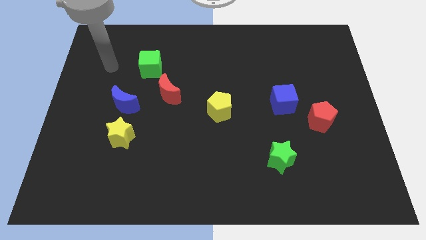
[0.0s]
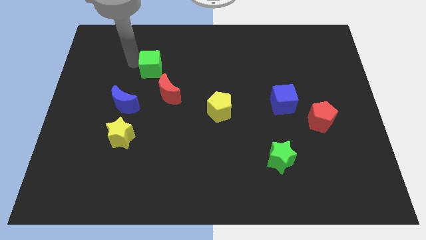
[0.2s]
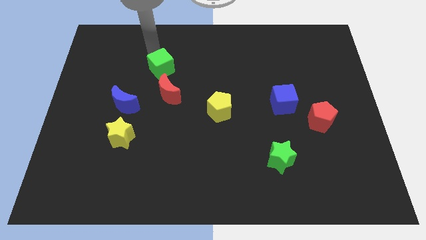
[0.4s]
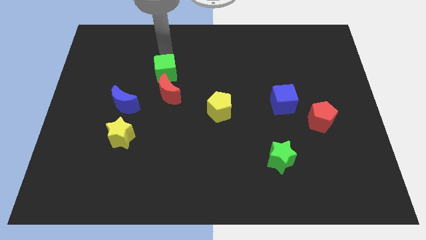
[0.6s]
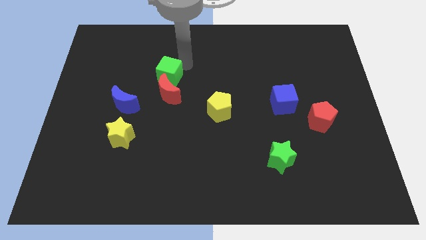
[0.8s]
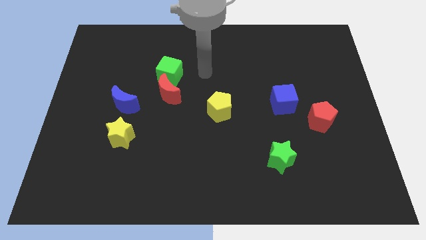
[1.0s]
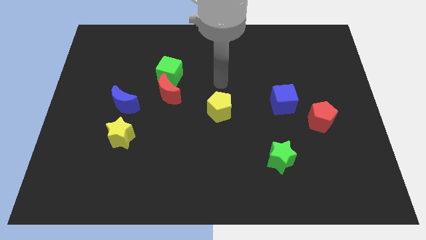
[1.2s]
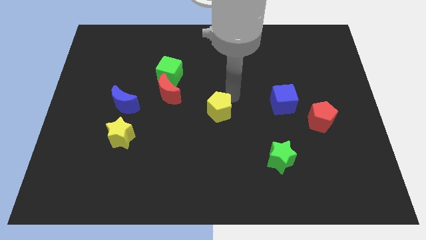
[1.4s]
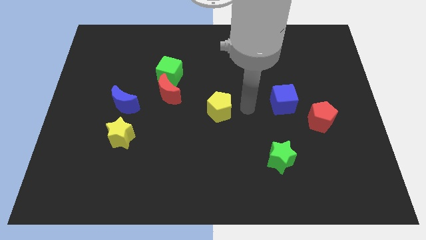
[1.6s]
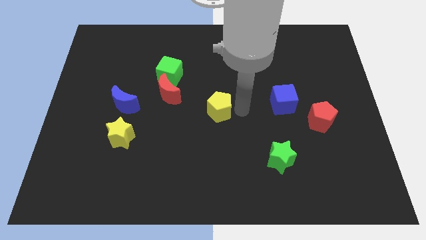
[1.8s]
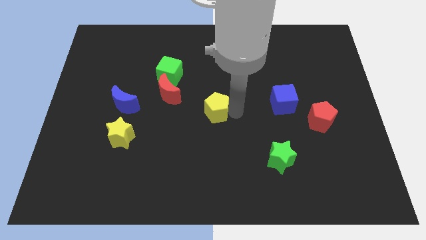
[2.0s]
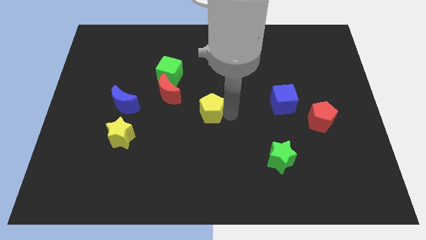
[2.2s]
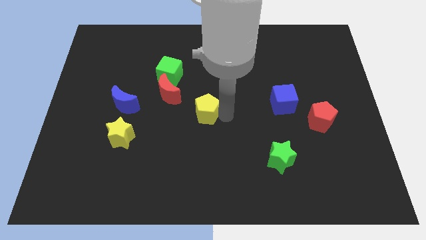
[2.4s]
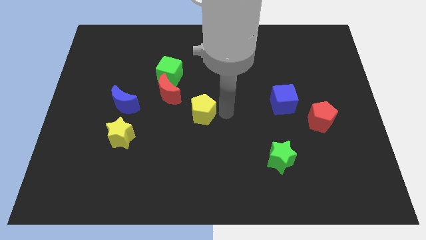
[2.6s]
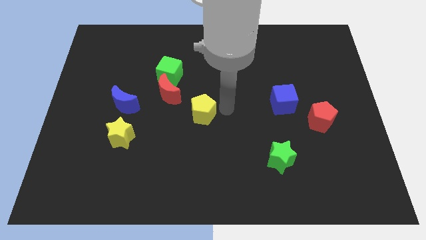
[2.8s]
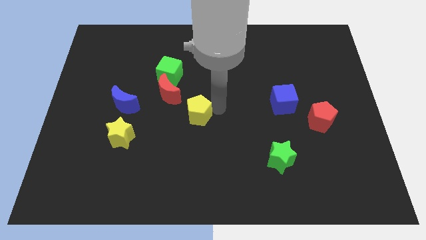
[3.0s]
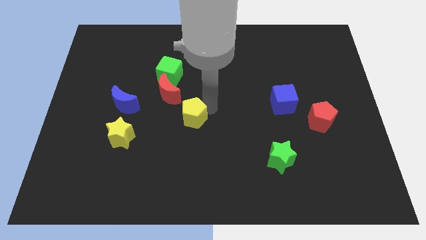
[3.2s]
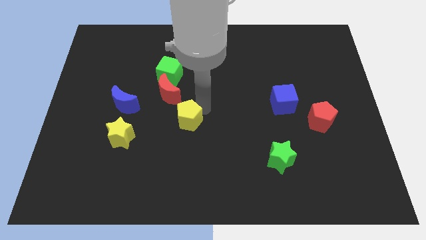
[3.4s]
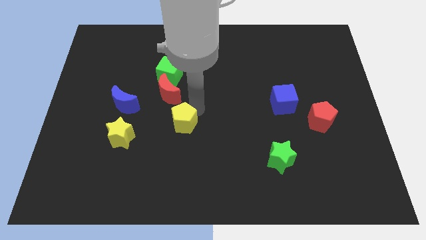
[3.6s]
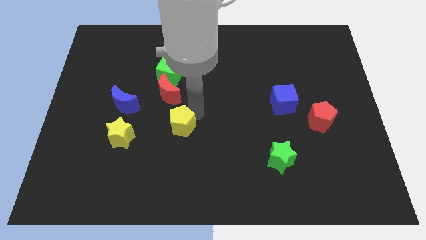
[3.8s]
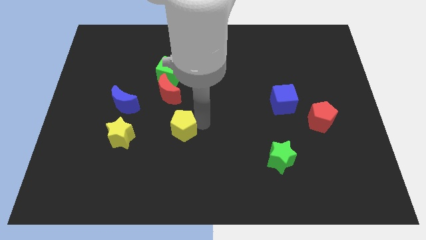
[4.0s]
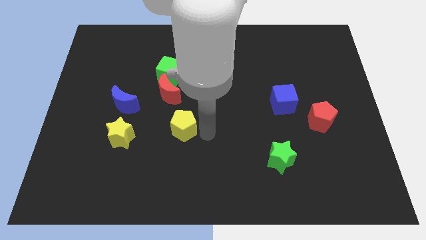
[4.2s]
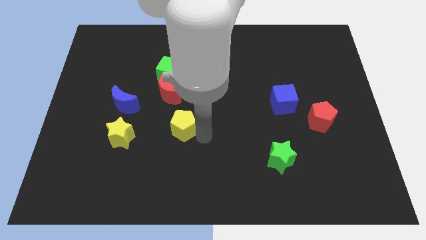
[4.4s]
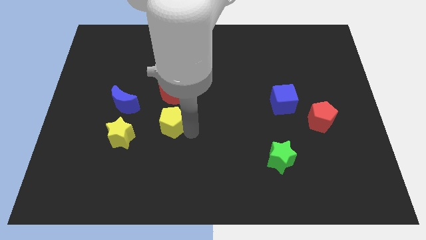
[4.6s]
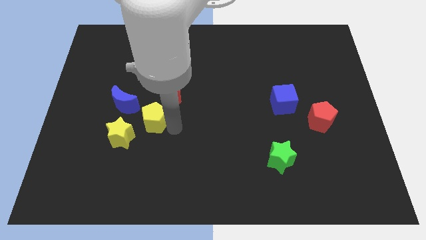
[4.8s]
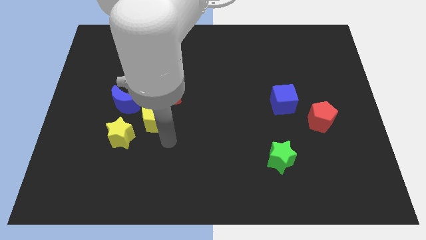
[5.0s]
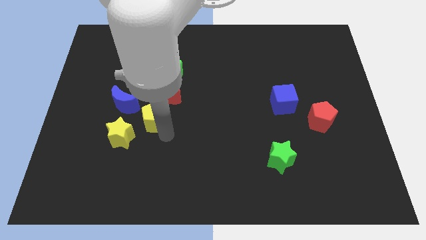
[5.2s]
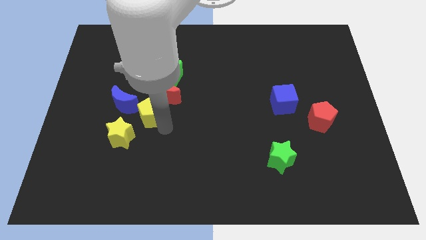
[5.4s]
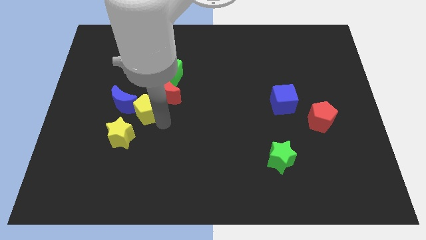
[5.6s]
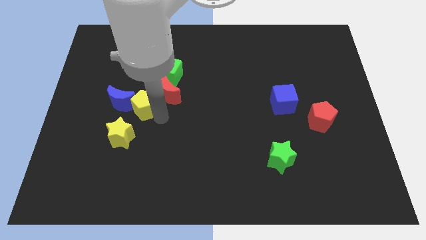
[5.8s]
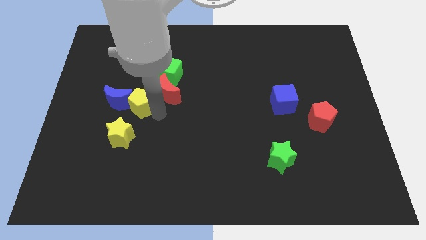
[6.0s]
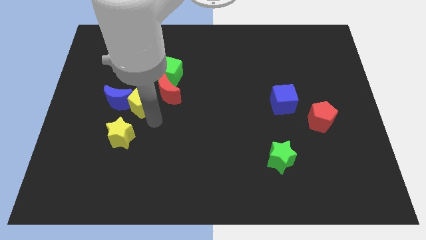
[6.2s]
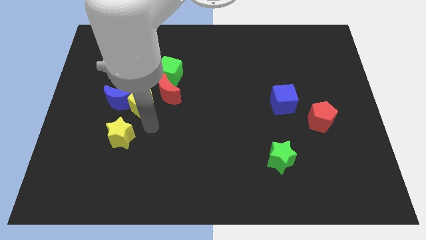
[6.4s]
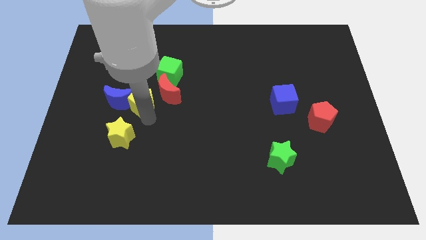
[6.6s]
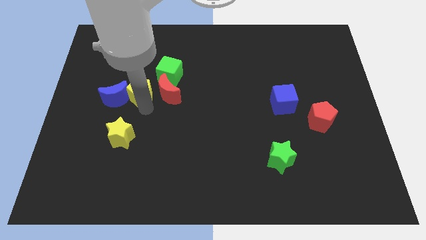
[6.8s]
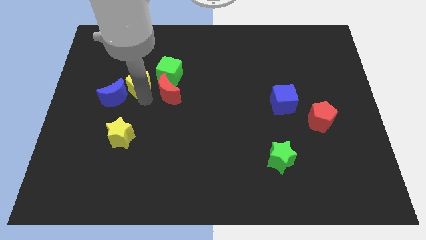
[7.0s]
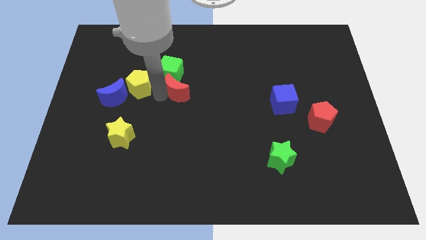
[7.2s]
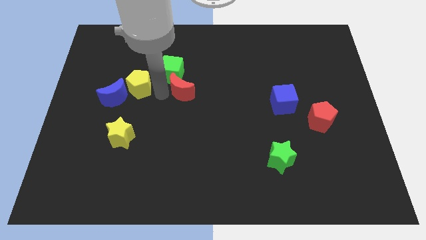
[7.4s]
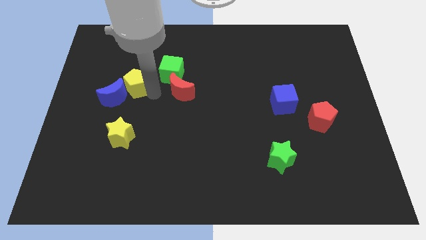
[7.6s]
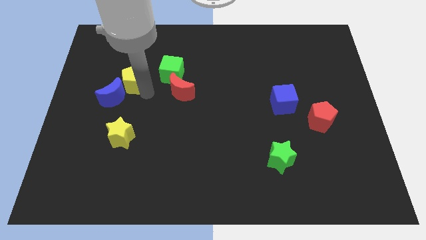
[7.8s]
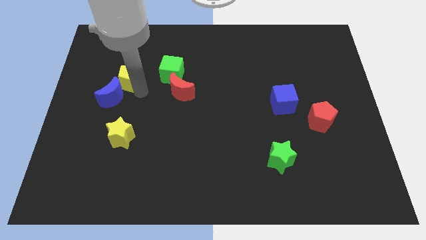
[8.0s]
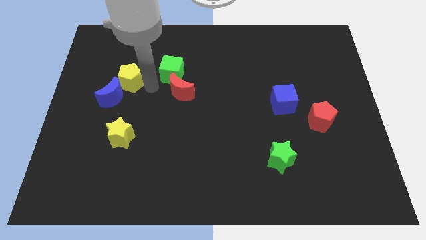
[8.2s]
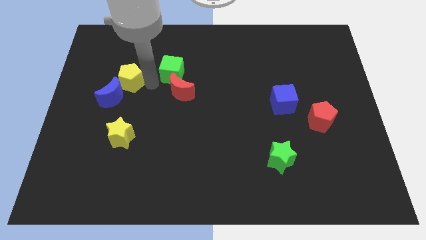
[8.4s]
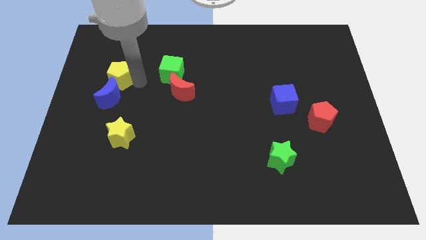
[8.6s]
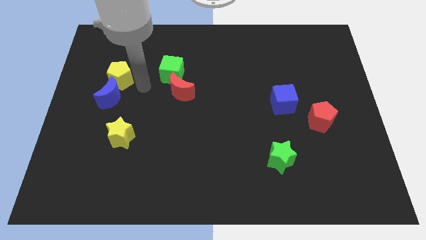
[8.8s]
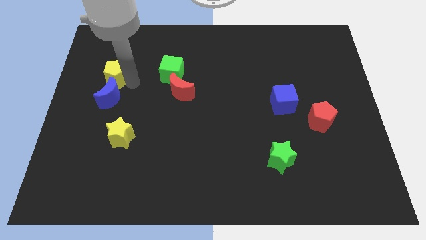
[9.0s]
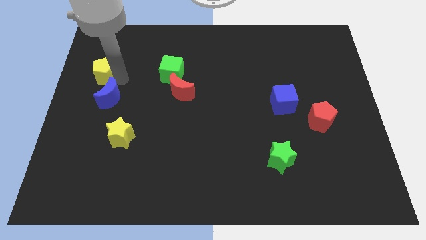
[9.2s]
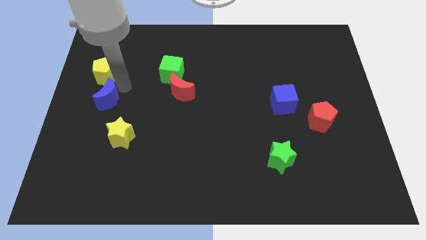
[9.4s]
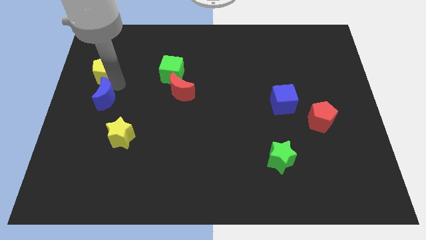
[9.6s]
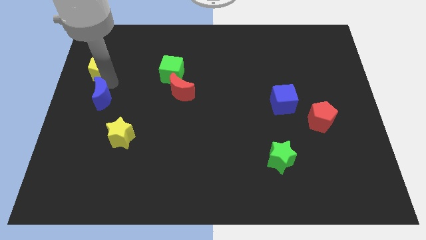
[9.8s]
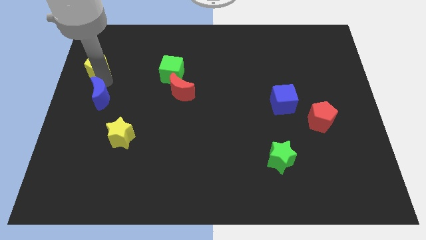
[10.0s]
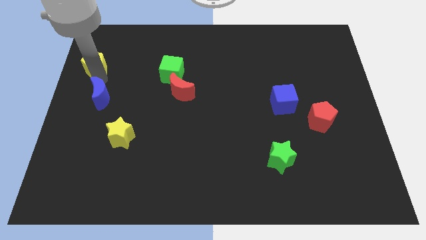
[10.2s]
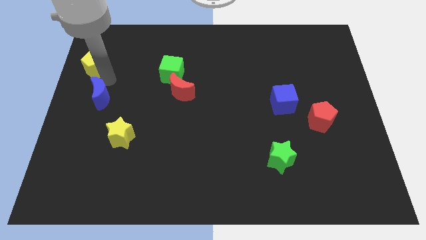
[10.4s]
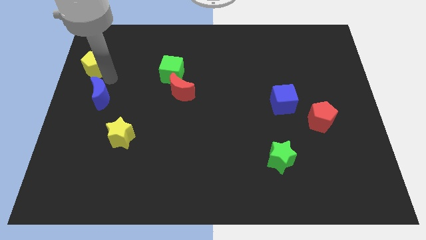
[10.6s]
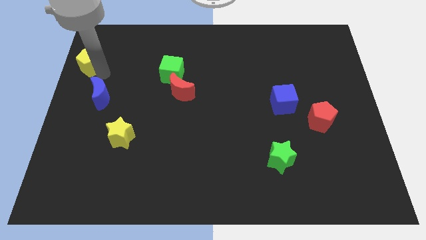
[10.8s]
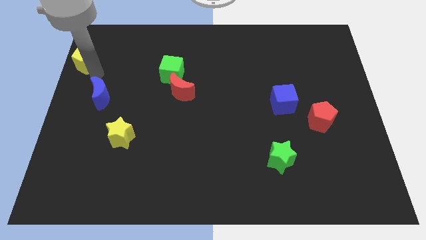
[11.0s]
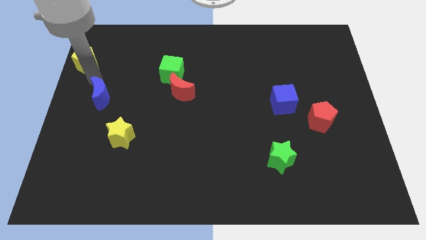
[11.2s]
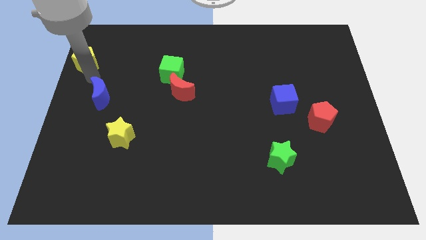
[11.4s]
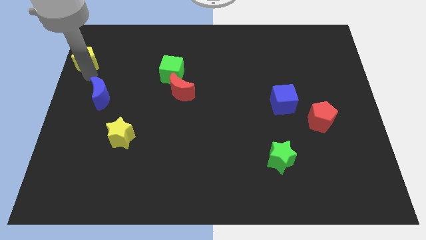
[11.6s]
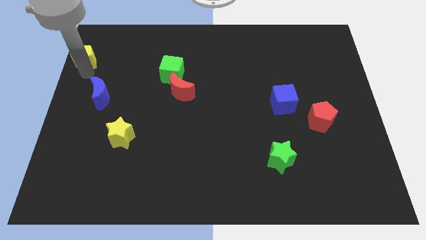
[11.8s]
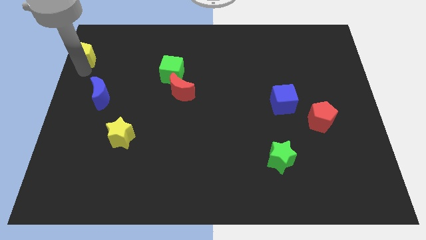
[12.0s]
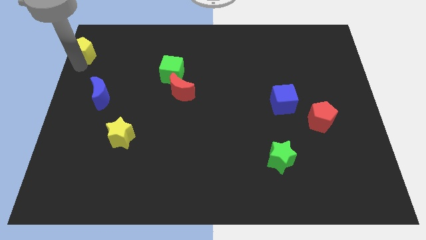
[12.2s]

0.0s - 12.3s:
move the yellow pentagon to the upper left corner
